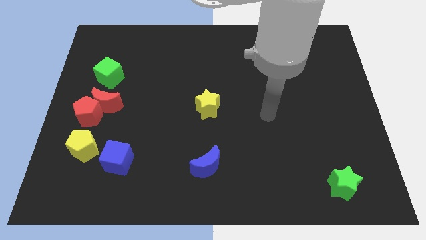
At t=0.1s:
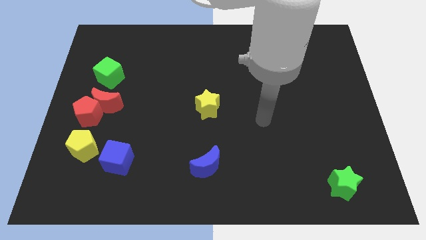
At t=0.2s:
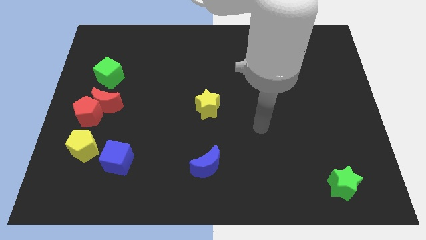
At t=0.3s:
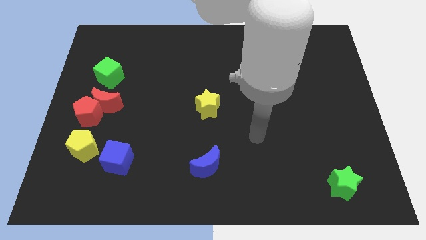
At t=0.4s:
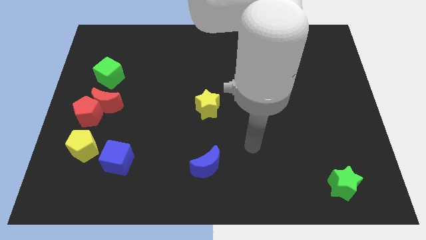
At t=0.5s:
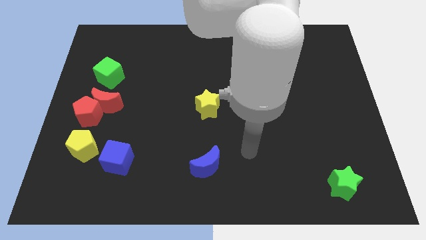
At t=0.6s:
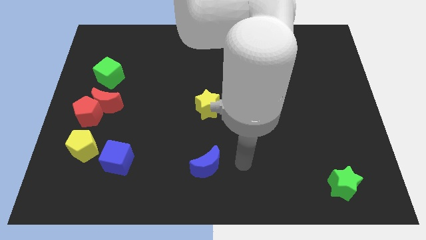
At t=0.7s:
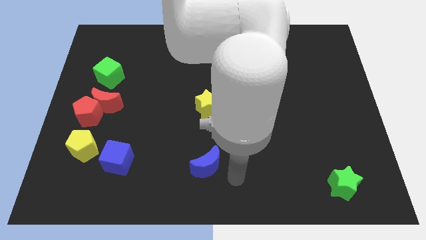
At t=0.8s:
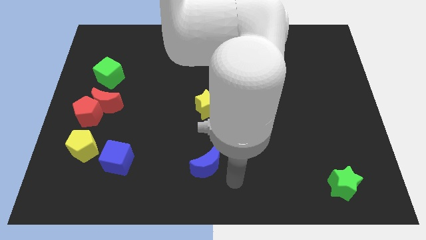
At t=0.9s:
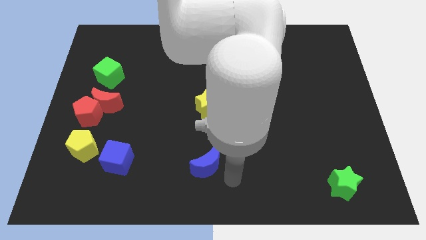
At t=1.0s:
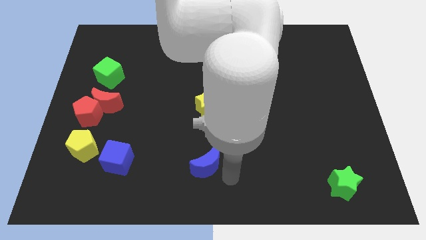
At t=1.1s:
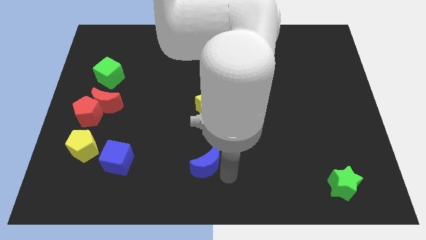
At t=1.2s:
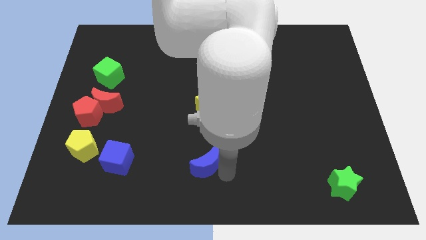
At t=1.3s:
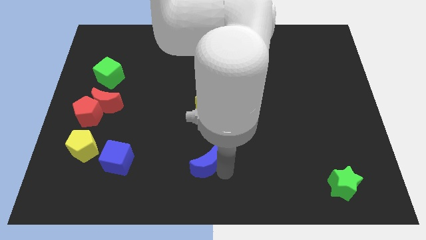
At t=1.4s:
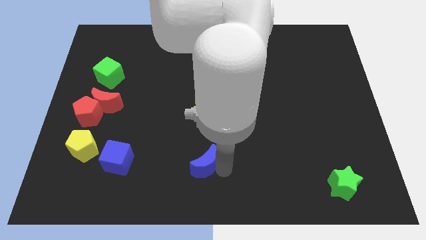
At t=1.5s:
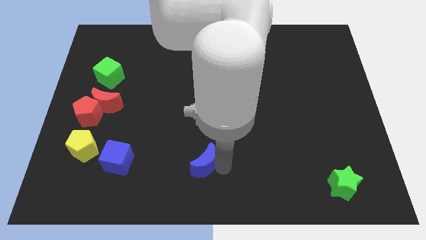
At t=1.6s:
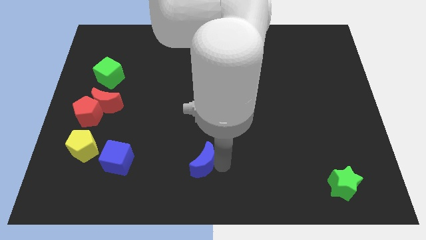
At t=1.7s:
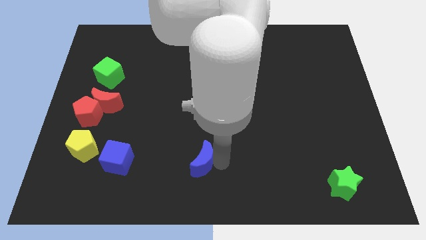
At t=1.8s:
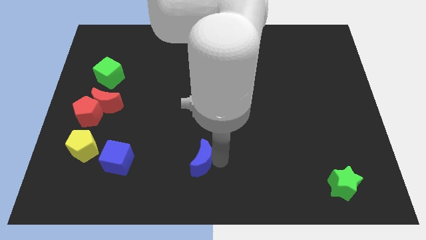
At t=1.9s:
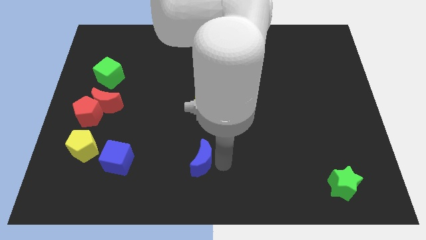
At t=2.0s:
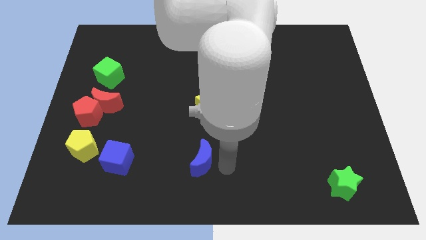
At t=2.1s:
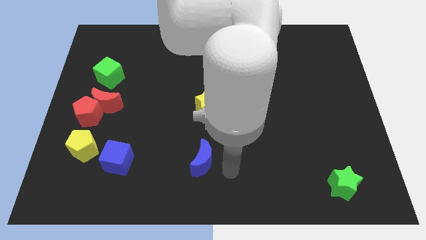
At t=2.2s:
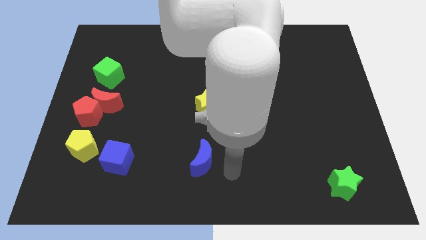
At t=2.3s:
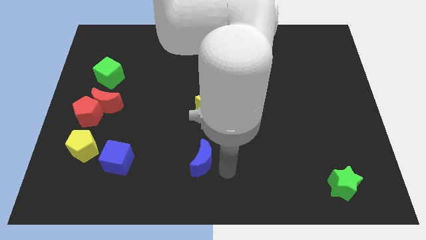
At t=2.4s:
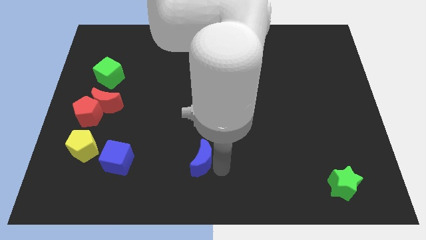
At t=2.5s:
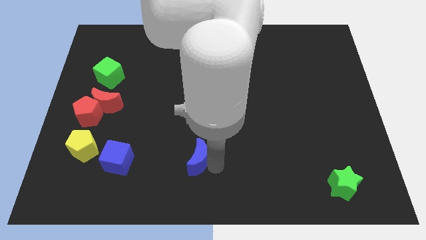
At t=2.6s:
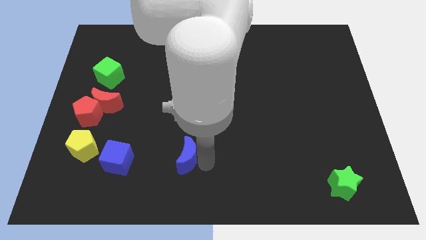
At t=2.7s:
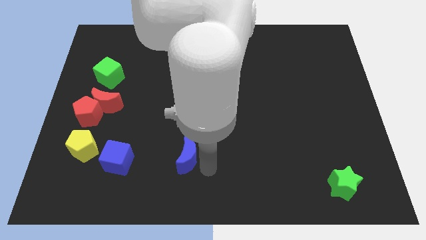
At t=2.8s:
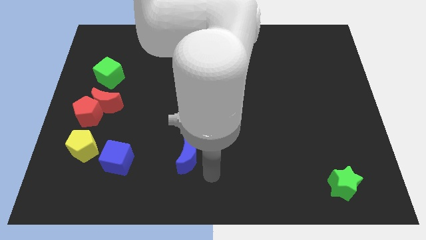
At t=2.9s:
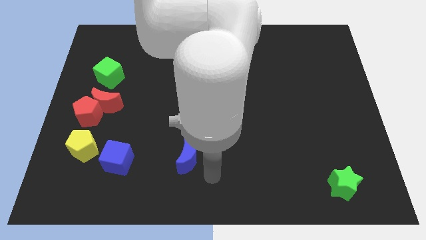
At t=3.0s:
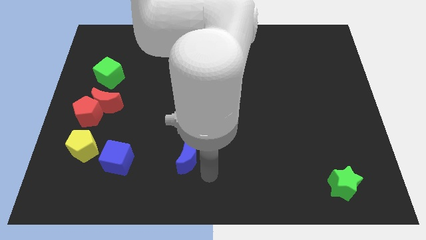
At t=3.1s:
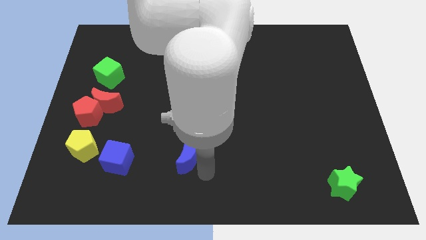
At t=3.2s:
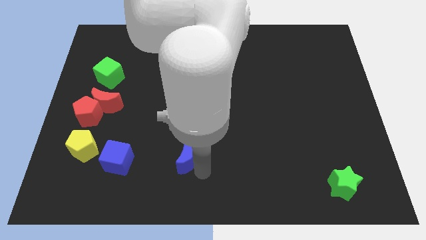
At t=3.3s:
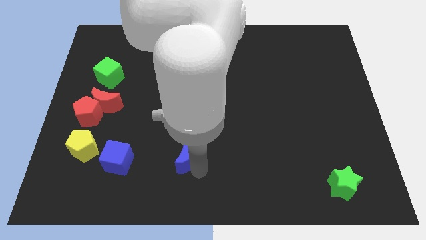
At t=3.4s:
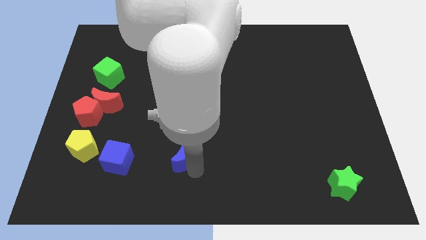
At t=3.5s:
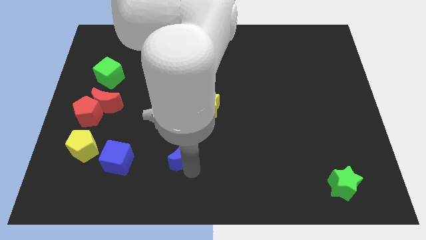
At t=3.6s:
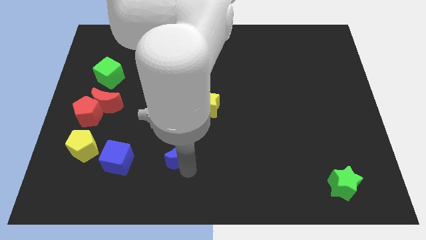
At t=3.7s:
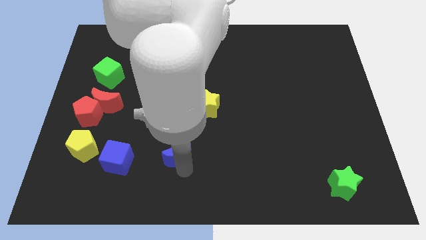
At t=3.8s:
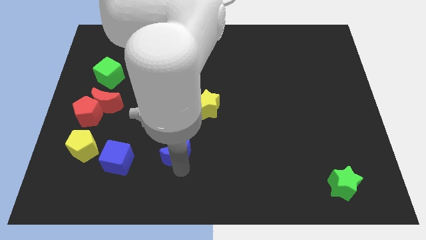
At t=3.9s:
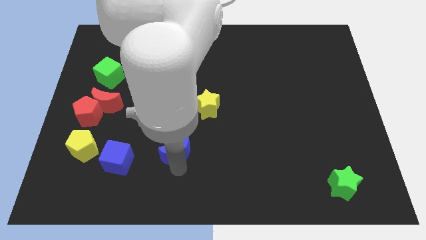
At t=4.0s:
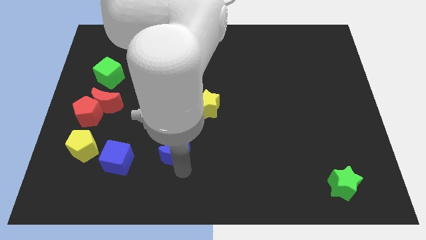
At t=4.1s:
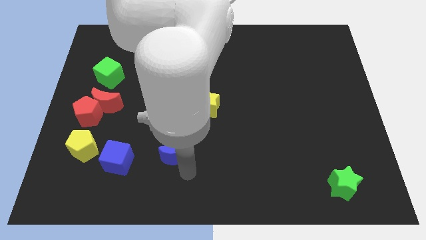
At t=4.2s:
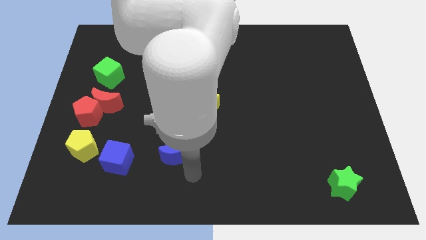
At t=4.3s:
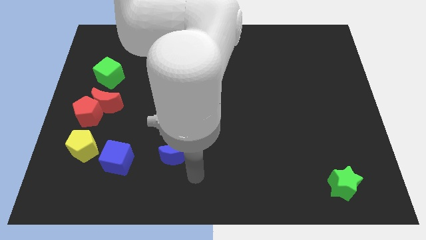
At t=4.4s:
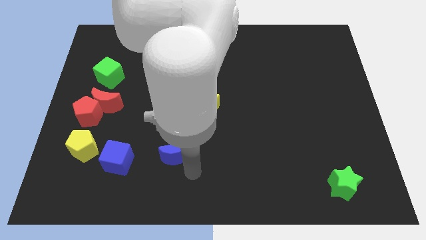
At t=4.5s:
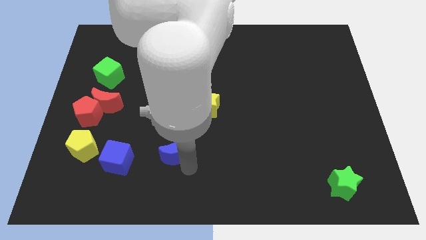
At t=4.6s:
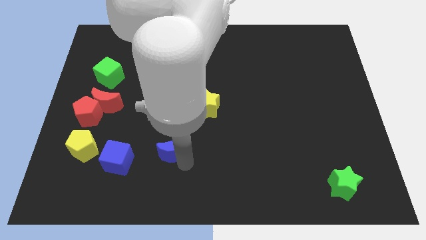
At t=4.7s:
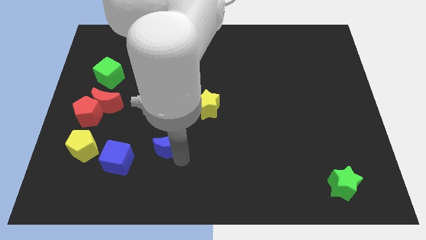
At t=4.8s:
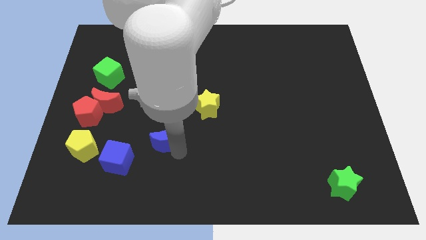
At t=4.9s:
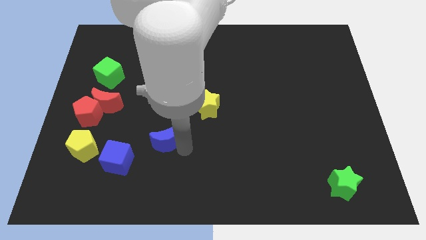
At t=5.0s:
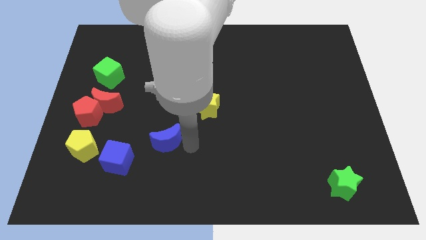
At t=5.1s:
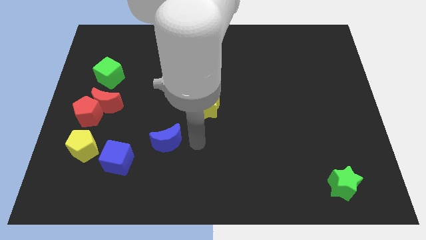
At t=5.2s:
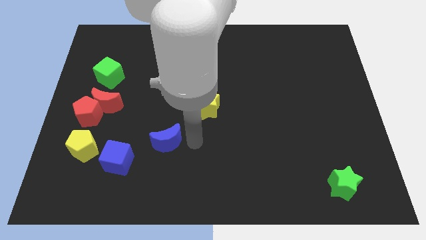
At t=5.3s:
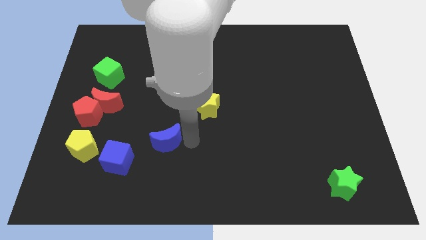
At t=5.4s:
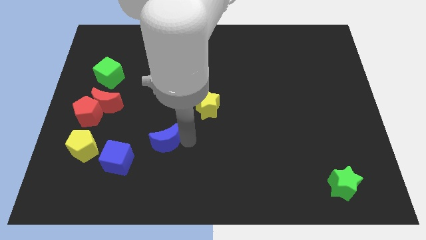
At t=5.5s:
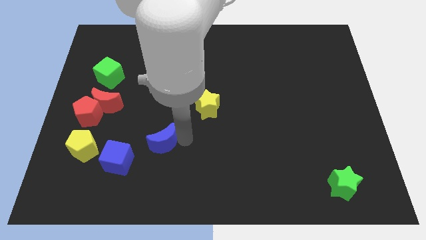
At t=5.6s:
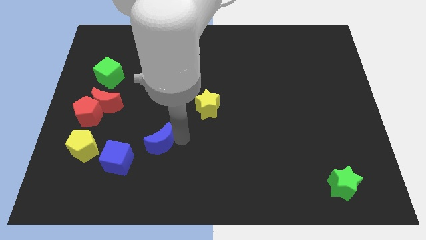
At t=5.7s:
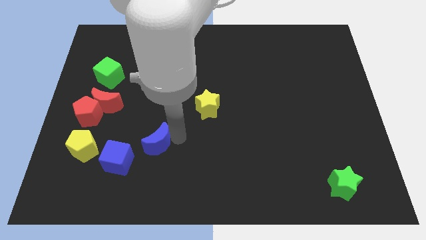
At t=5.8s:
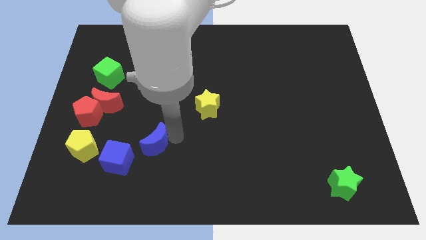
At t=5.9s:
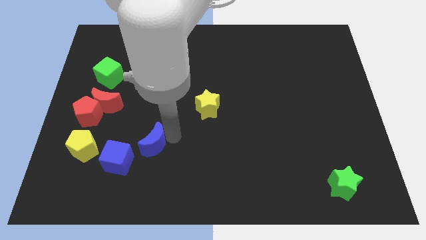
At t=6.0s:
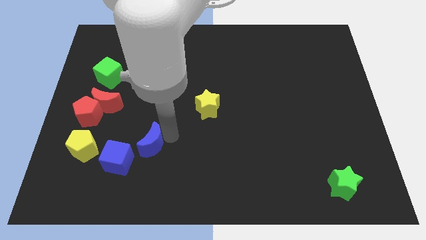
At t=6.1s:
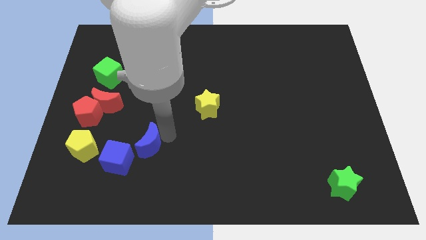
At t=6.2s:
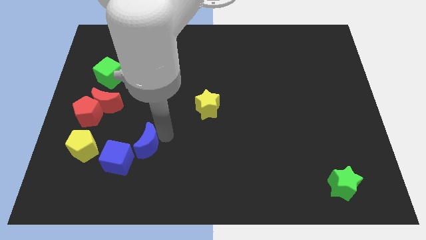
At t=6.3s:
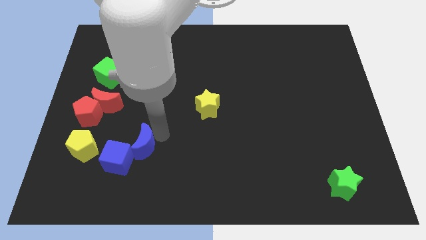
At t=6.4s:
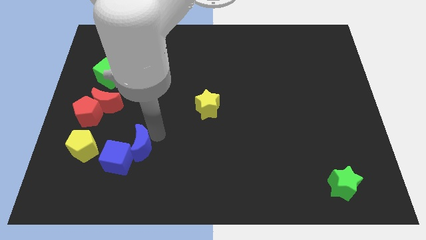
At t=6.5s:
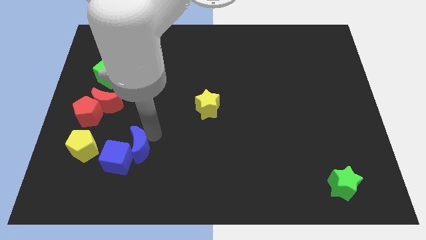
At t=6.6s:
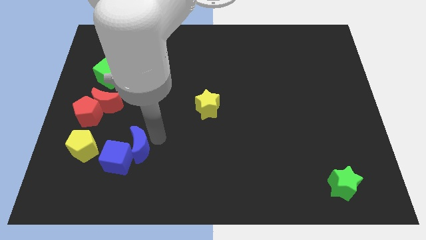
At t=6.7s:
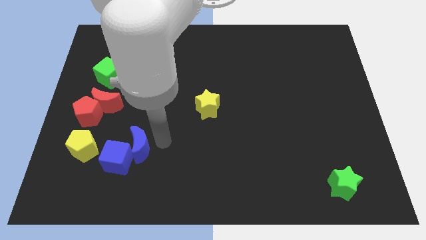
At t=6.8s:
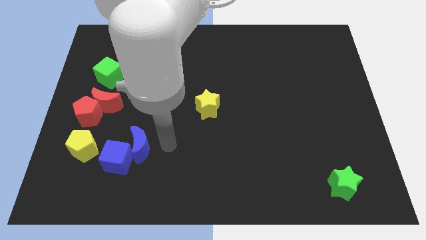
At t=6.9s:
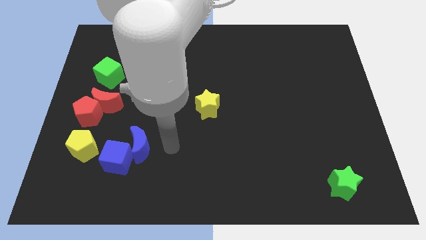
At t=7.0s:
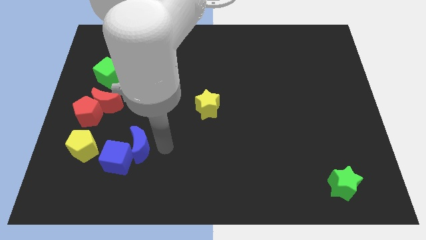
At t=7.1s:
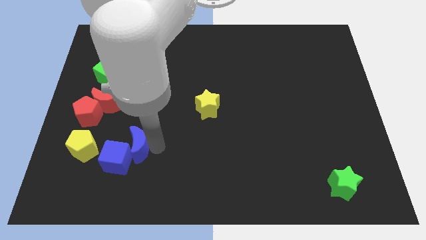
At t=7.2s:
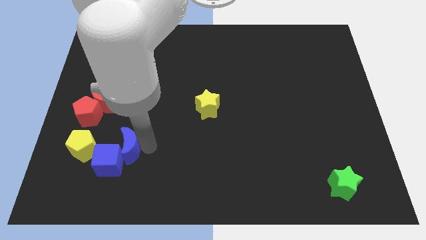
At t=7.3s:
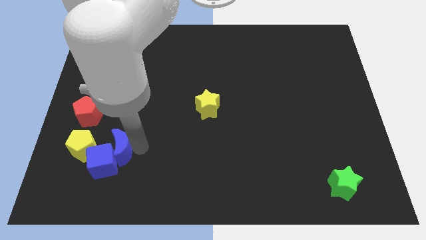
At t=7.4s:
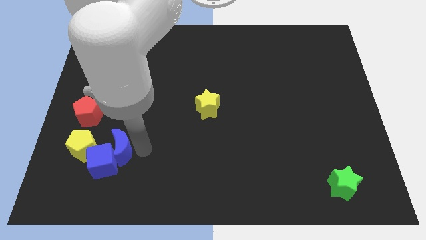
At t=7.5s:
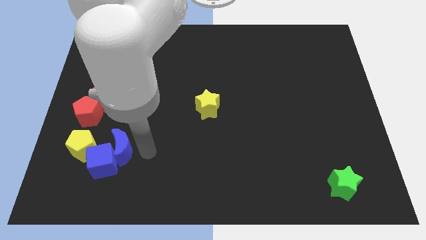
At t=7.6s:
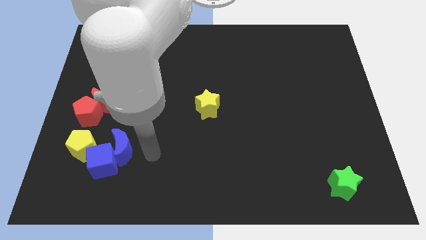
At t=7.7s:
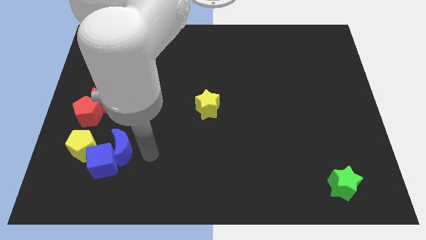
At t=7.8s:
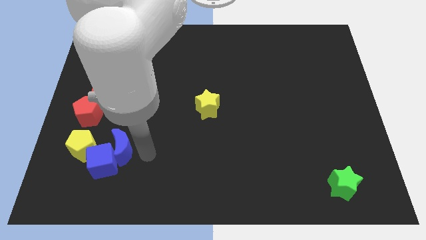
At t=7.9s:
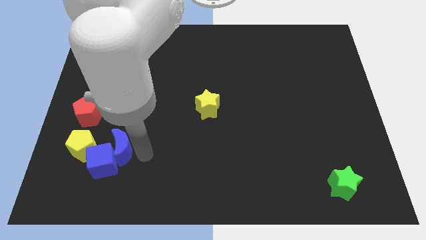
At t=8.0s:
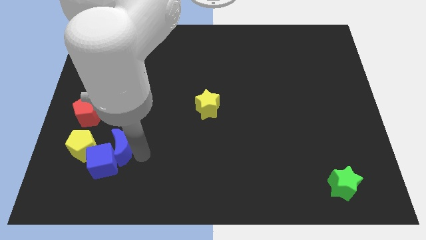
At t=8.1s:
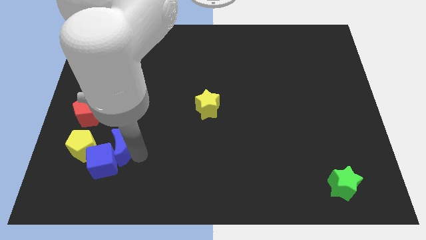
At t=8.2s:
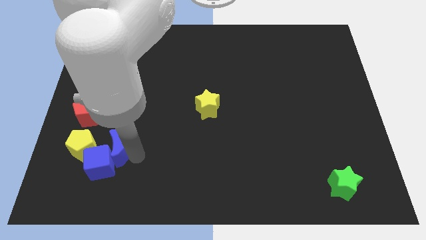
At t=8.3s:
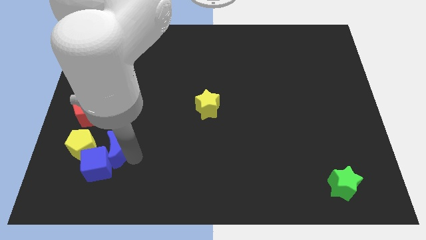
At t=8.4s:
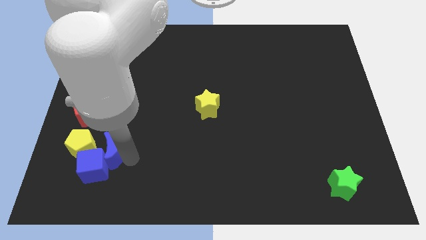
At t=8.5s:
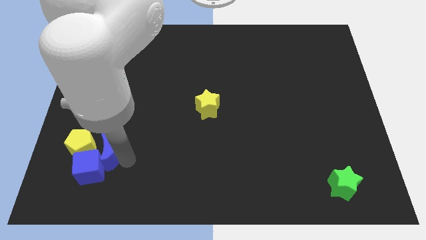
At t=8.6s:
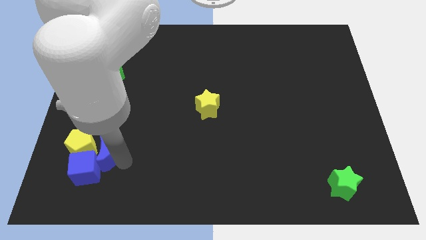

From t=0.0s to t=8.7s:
slide the blue moon close to the yellow pentagon
